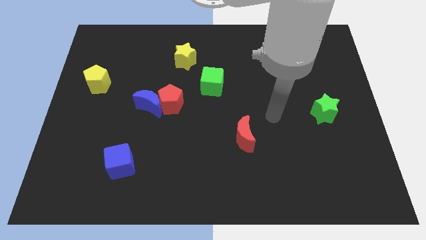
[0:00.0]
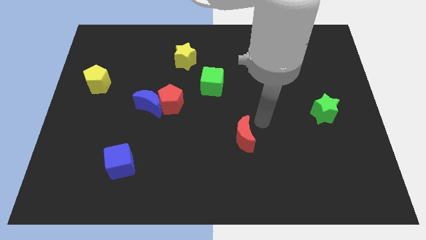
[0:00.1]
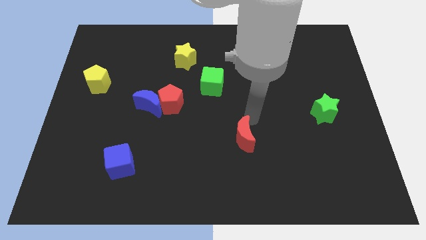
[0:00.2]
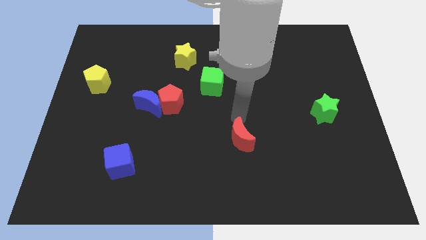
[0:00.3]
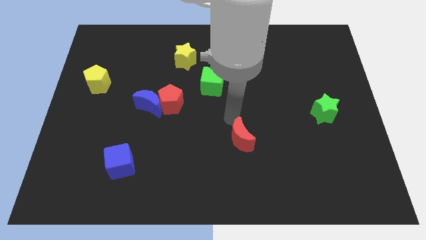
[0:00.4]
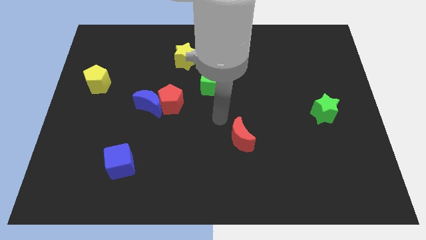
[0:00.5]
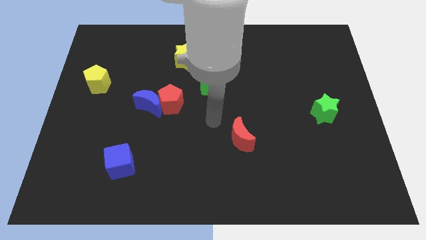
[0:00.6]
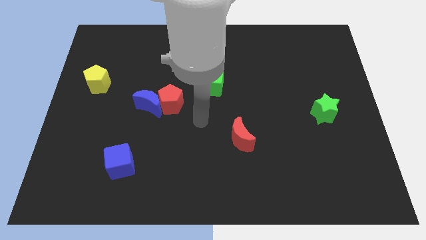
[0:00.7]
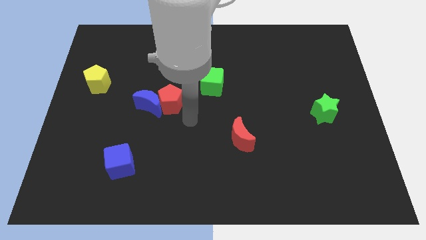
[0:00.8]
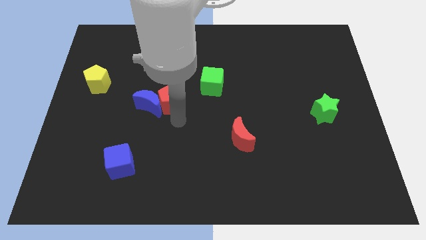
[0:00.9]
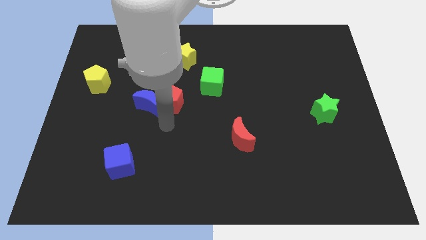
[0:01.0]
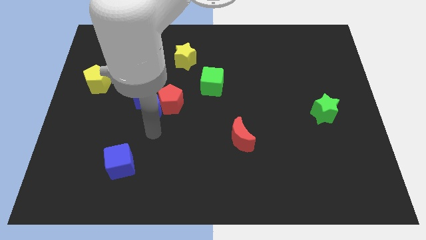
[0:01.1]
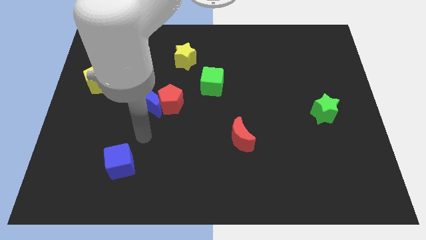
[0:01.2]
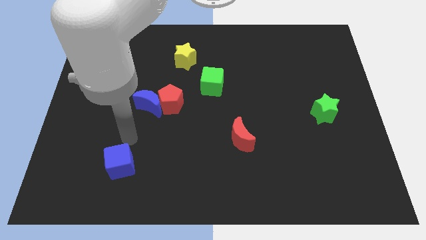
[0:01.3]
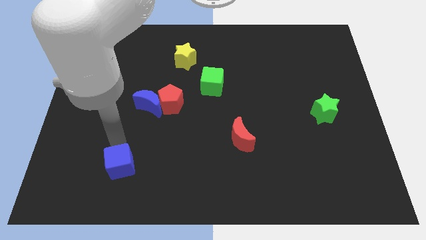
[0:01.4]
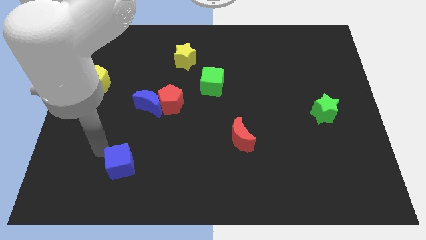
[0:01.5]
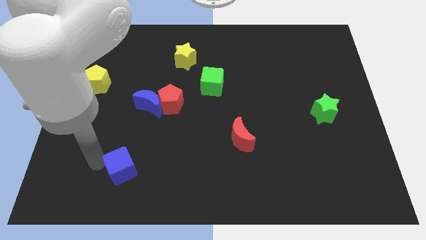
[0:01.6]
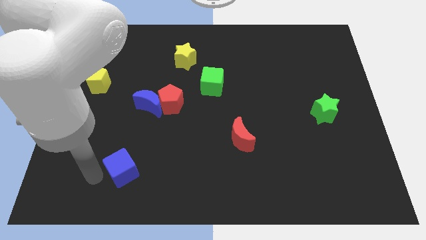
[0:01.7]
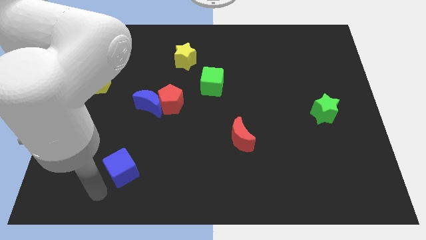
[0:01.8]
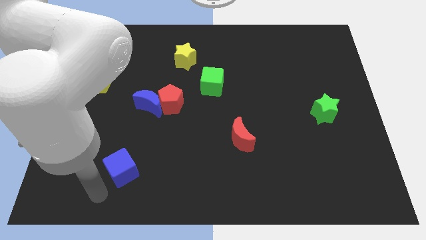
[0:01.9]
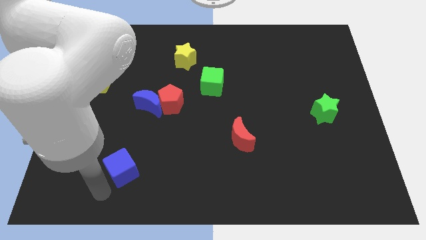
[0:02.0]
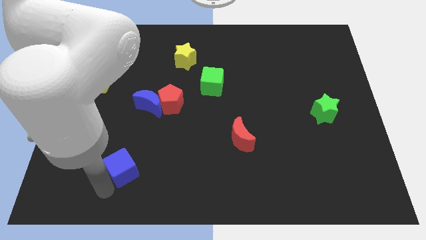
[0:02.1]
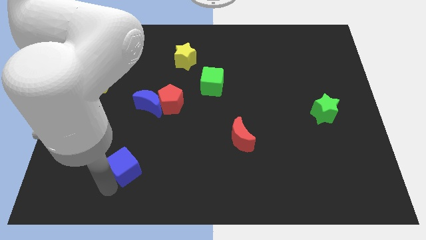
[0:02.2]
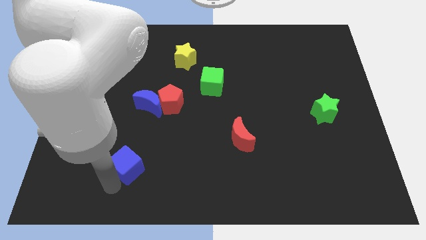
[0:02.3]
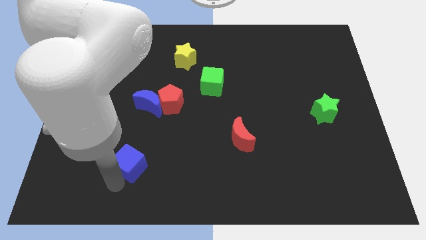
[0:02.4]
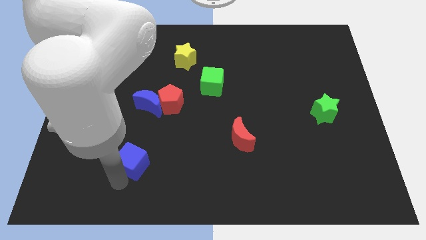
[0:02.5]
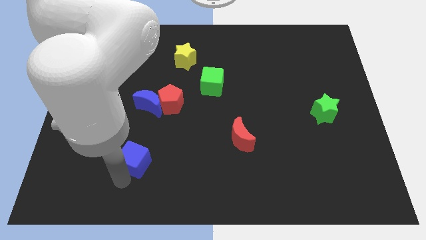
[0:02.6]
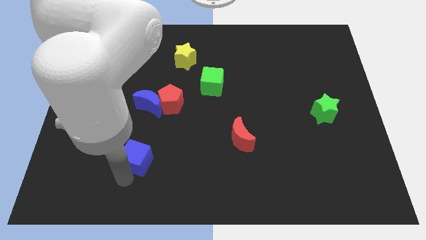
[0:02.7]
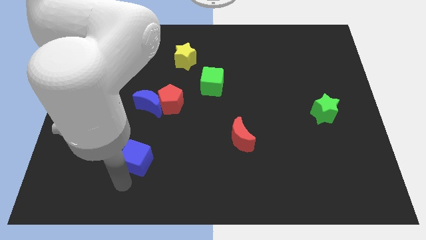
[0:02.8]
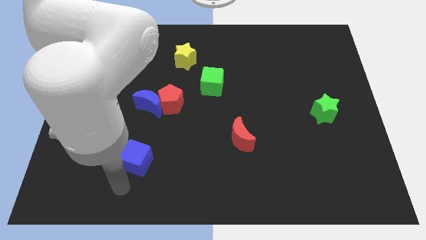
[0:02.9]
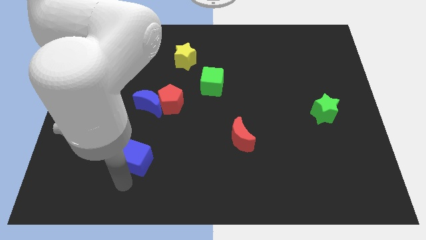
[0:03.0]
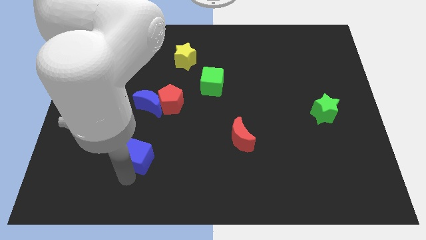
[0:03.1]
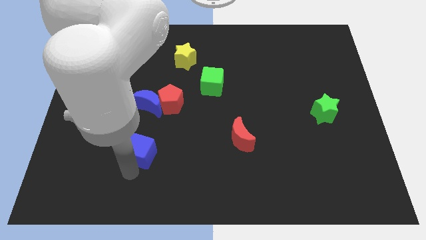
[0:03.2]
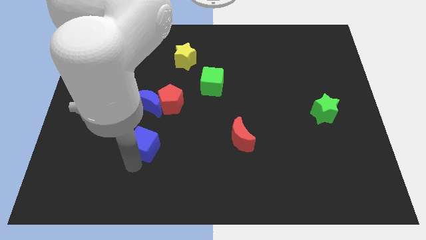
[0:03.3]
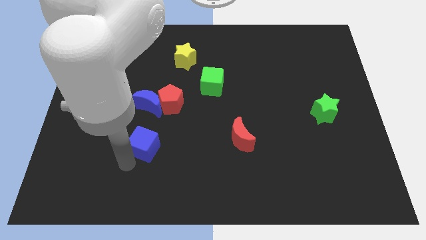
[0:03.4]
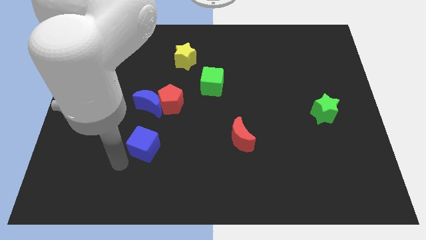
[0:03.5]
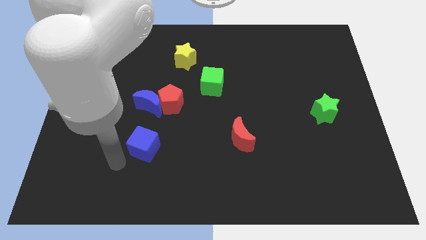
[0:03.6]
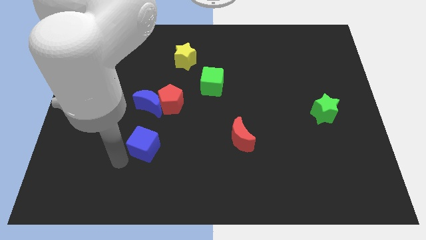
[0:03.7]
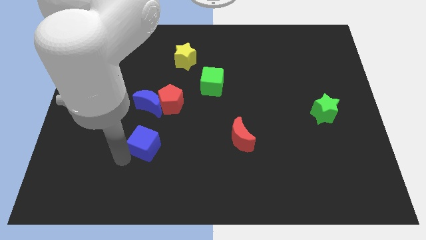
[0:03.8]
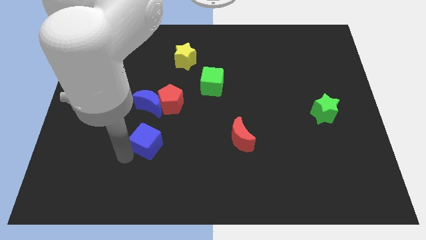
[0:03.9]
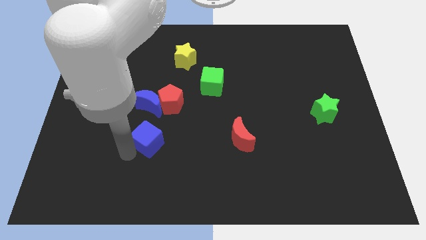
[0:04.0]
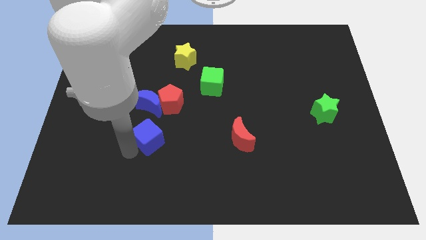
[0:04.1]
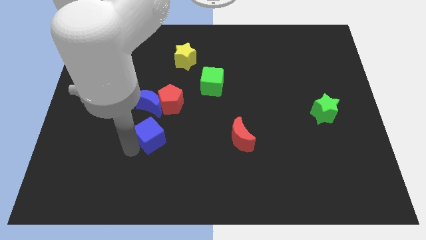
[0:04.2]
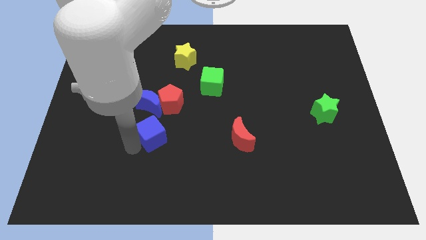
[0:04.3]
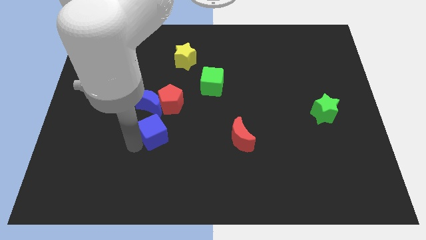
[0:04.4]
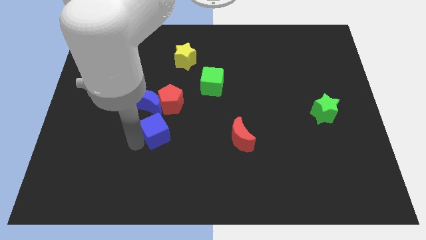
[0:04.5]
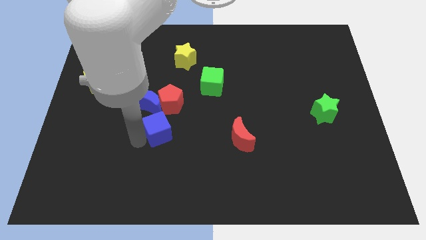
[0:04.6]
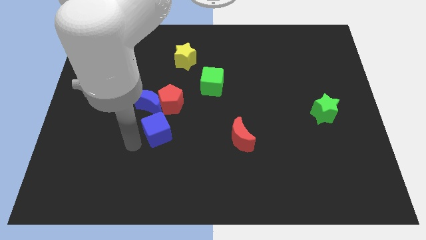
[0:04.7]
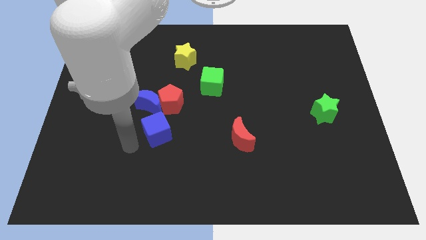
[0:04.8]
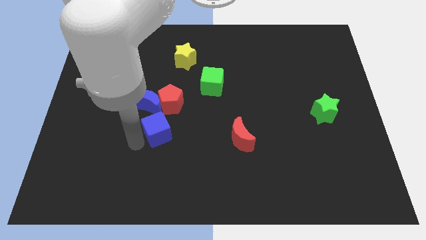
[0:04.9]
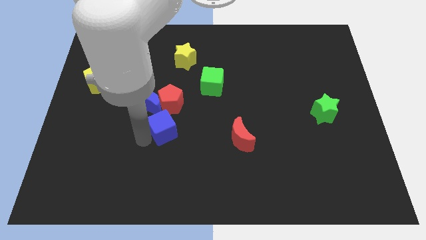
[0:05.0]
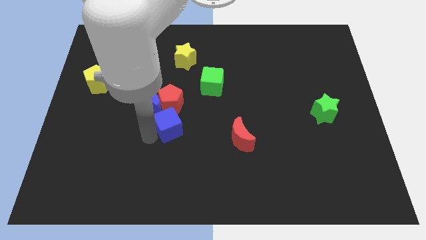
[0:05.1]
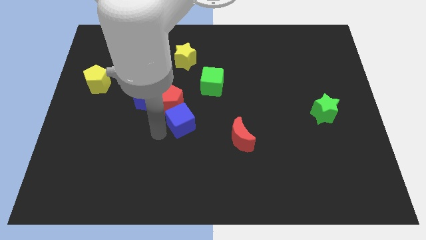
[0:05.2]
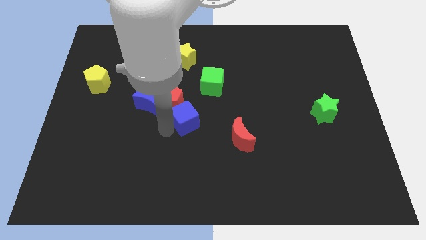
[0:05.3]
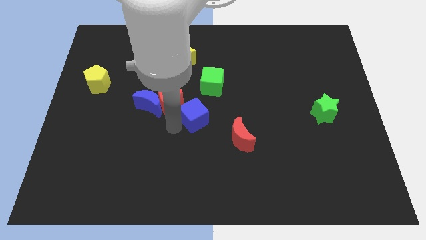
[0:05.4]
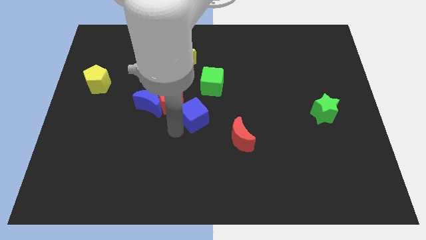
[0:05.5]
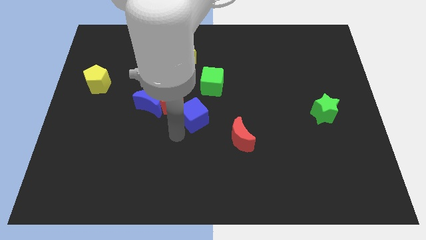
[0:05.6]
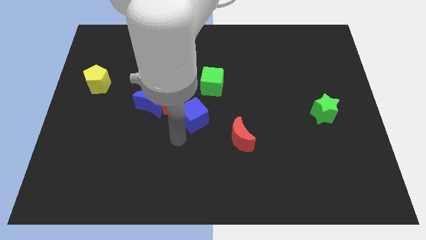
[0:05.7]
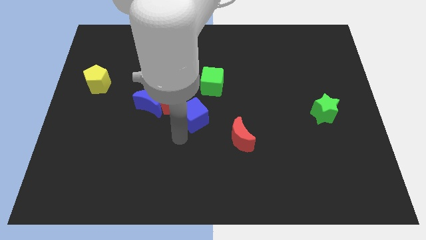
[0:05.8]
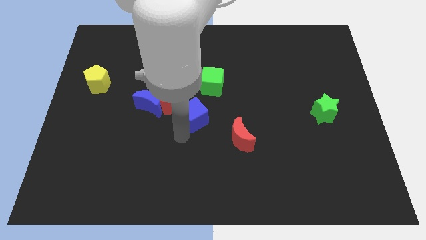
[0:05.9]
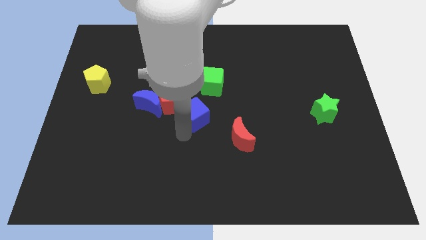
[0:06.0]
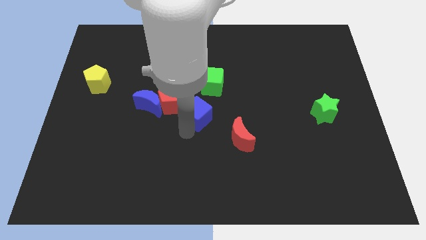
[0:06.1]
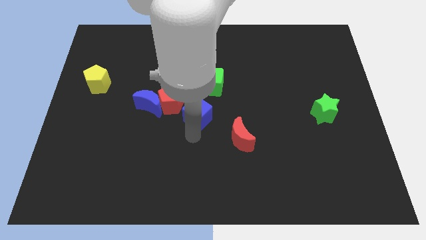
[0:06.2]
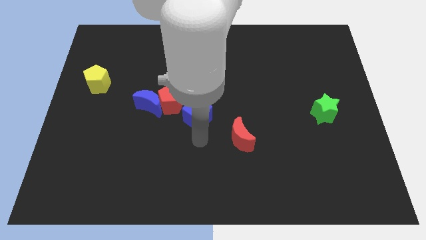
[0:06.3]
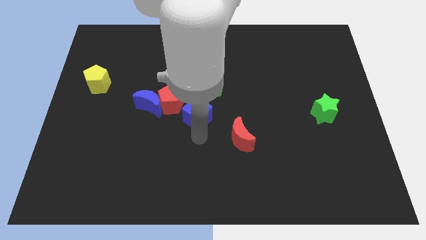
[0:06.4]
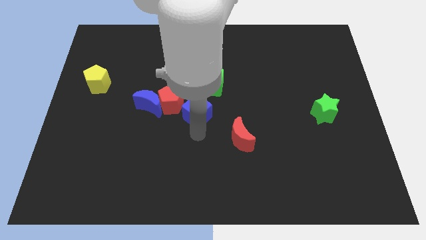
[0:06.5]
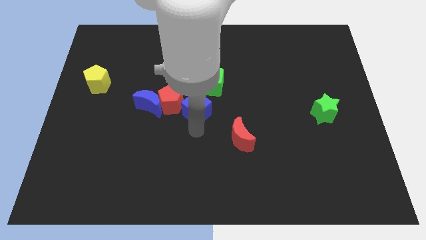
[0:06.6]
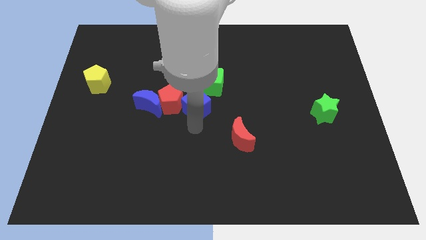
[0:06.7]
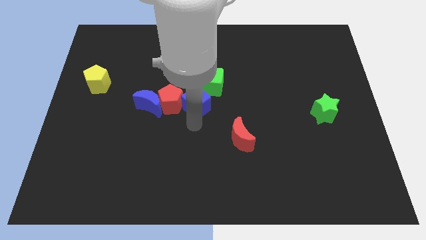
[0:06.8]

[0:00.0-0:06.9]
put the blue cube to the top right of the red pentagon

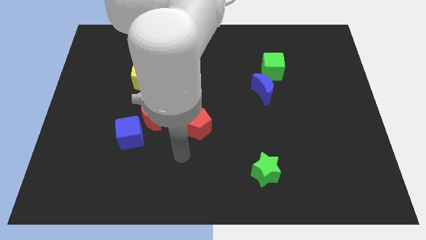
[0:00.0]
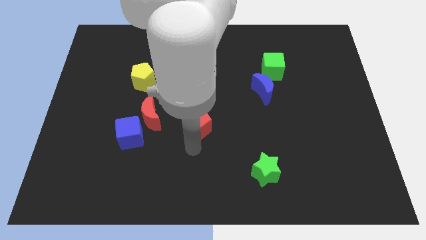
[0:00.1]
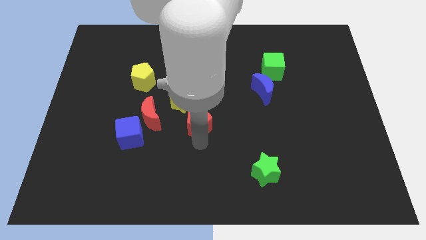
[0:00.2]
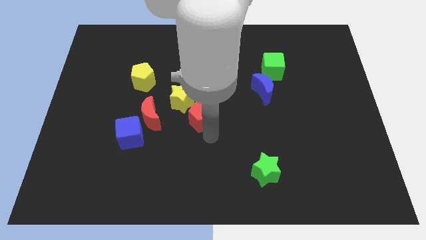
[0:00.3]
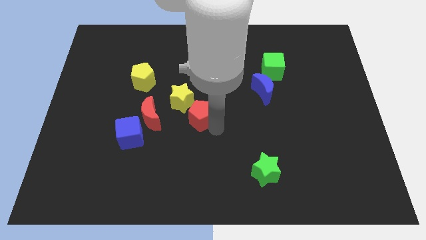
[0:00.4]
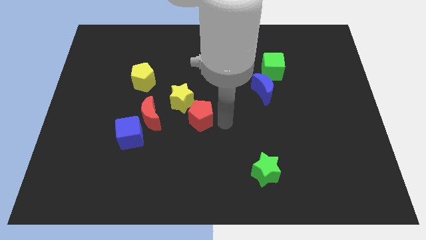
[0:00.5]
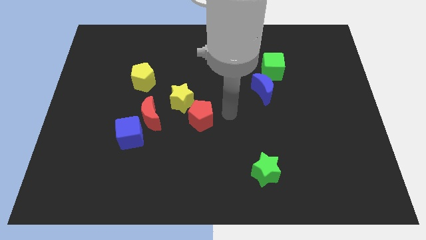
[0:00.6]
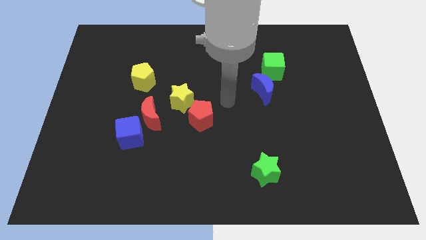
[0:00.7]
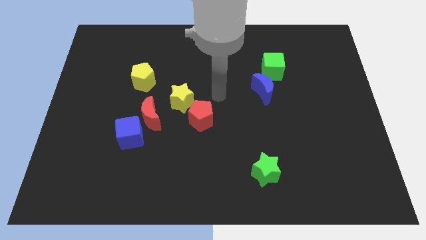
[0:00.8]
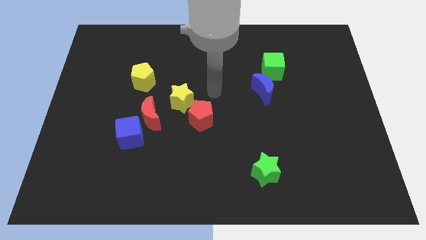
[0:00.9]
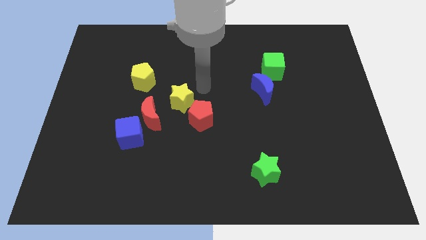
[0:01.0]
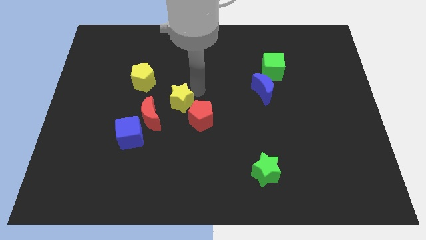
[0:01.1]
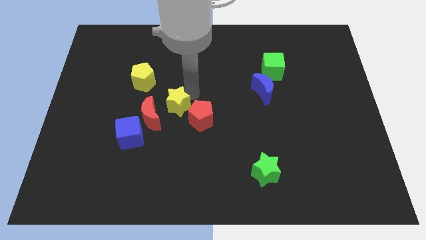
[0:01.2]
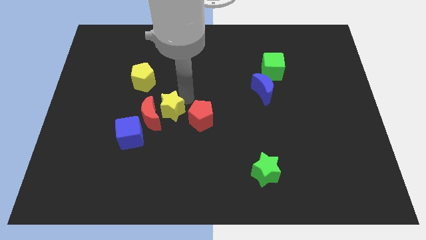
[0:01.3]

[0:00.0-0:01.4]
put the yellow star diagonally up and to the right of the blue cube

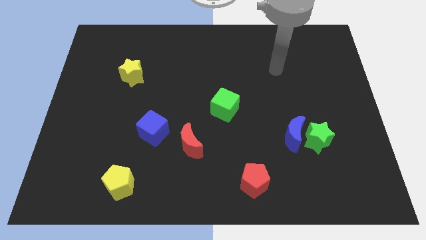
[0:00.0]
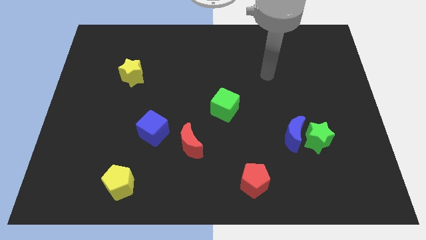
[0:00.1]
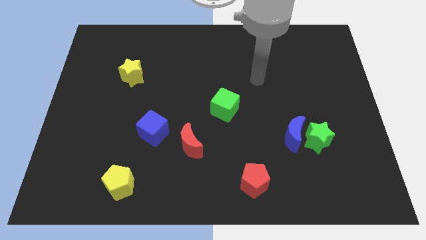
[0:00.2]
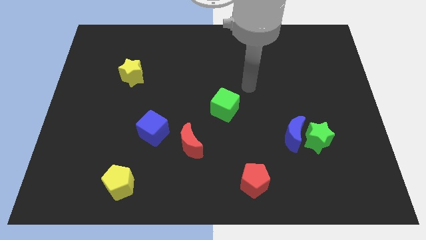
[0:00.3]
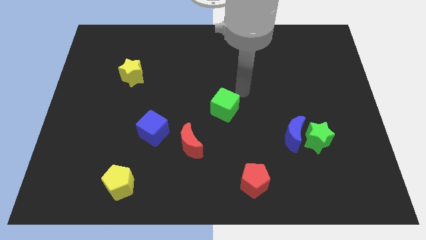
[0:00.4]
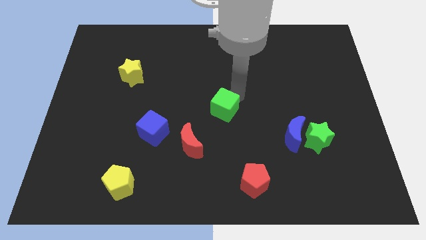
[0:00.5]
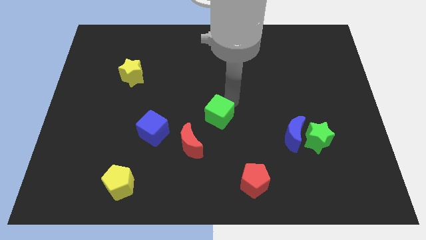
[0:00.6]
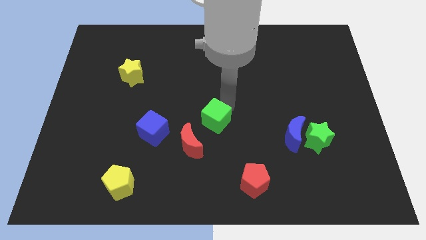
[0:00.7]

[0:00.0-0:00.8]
slide the green cube to the right side of the blue cube
